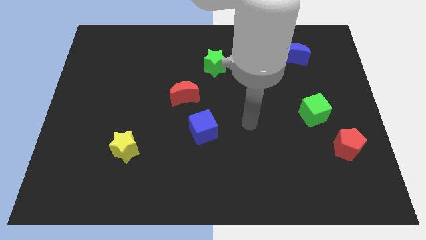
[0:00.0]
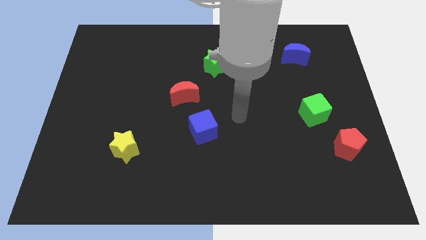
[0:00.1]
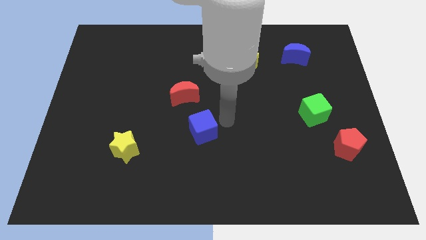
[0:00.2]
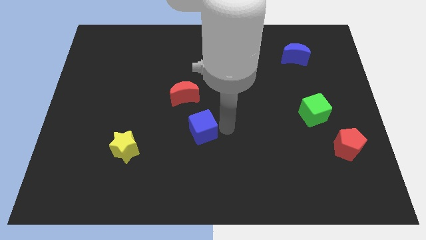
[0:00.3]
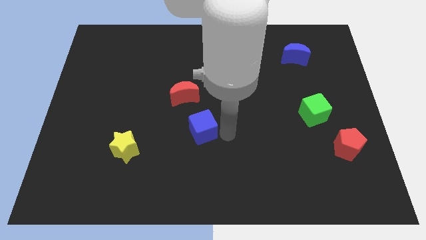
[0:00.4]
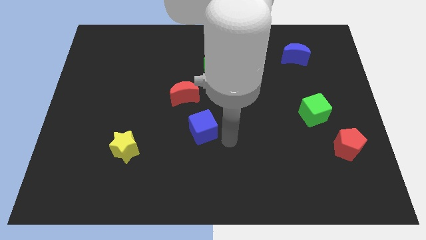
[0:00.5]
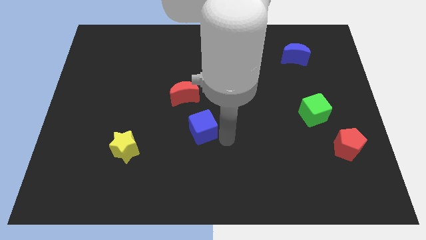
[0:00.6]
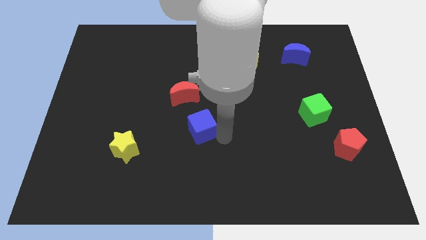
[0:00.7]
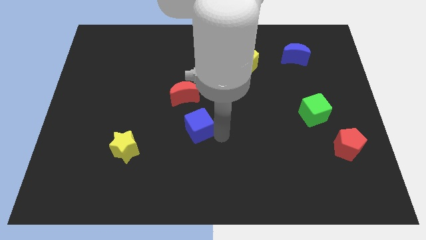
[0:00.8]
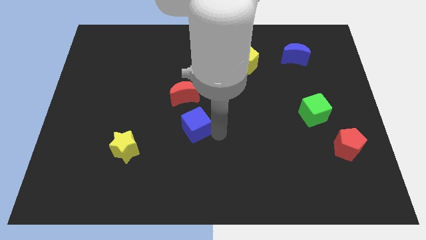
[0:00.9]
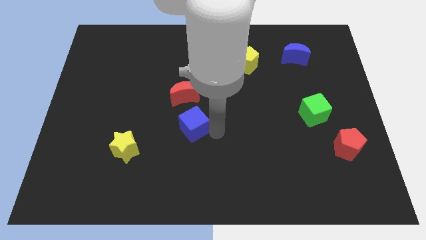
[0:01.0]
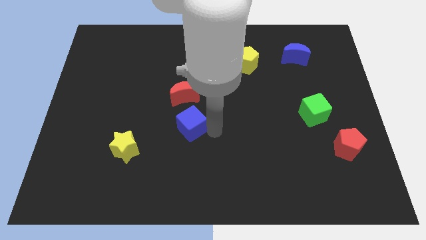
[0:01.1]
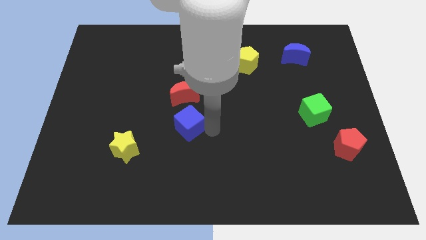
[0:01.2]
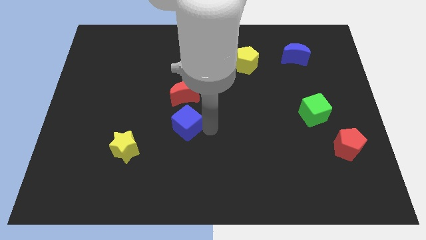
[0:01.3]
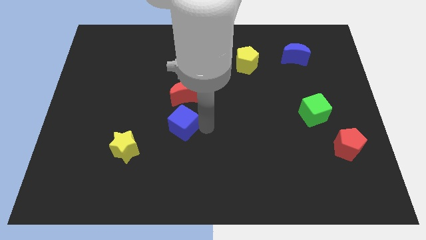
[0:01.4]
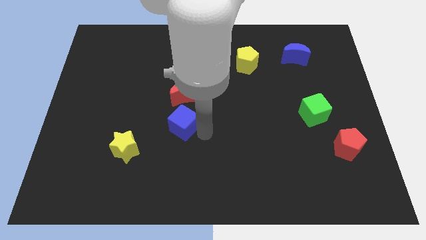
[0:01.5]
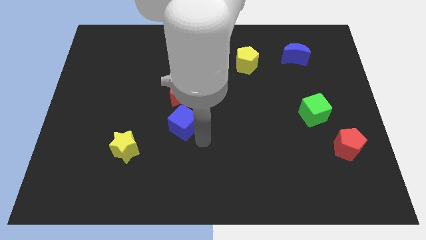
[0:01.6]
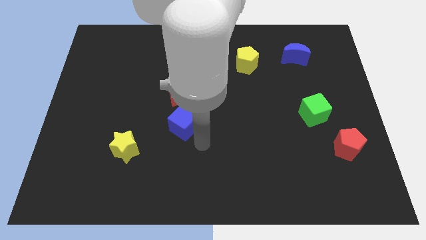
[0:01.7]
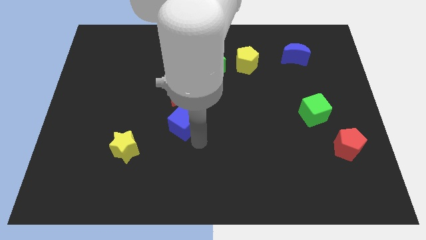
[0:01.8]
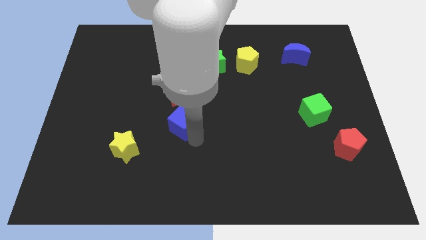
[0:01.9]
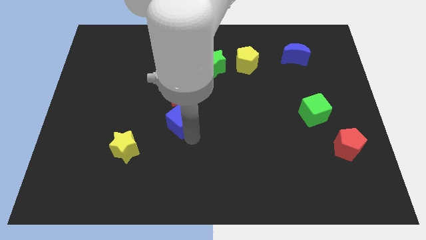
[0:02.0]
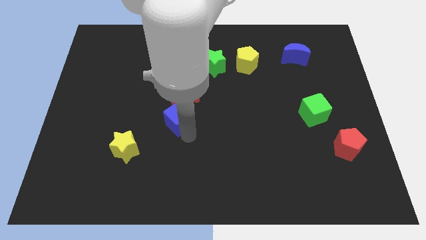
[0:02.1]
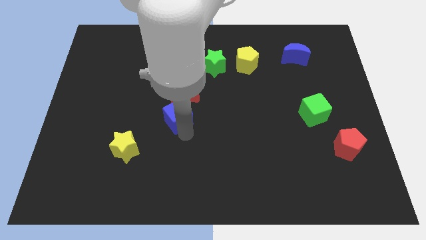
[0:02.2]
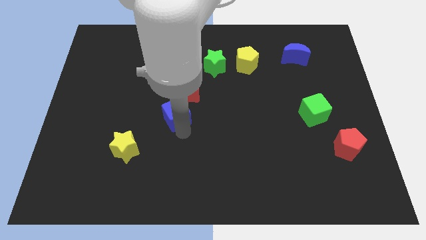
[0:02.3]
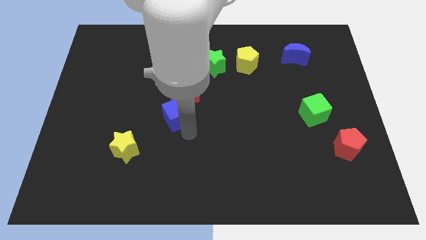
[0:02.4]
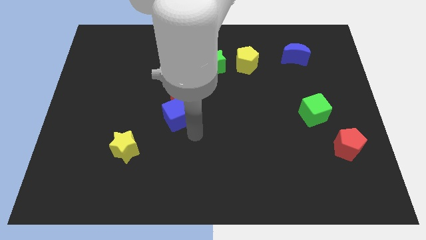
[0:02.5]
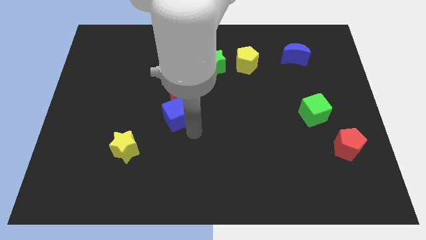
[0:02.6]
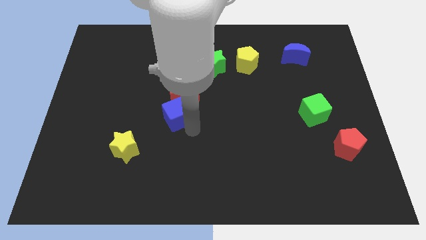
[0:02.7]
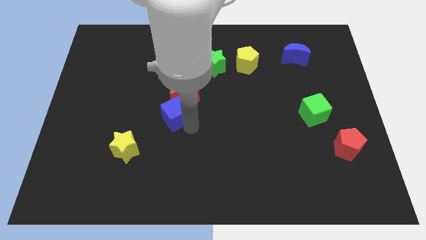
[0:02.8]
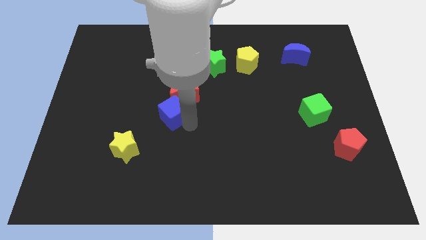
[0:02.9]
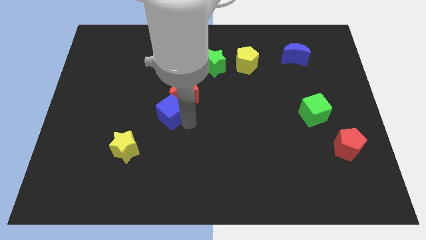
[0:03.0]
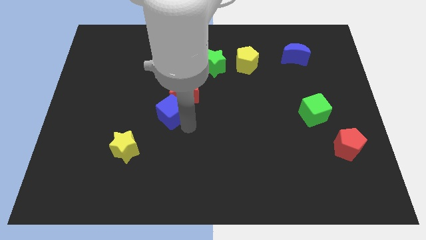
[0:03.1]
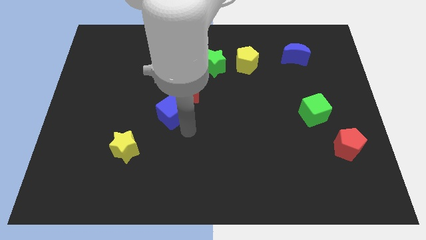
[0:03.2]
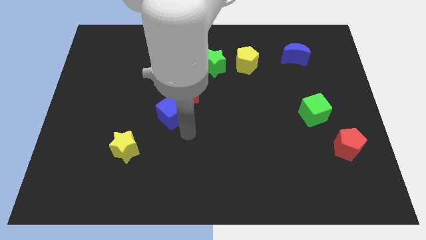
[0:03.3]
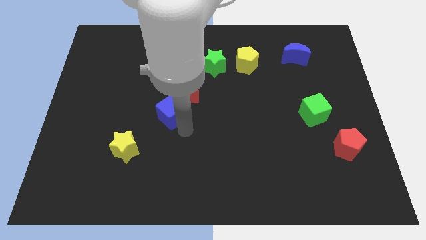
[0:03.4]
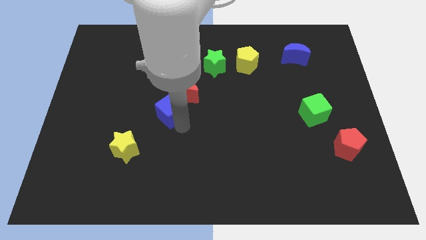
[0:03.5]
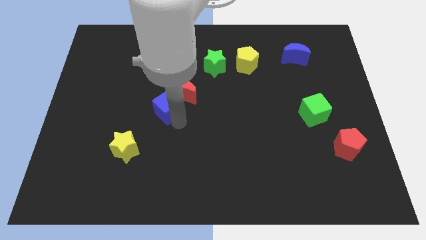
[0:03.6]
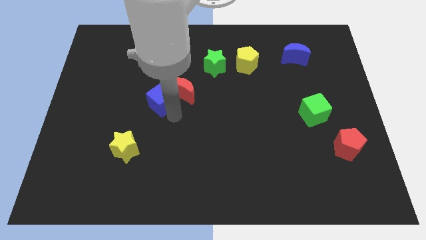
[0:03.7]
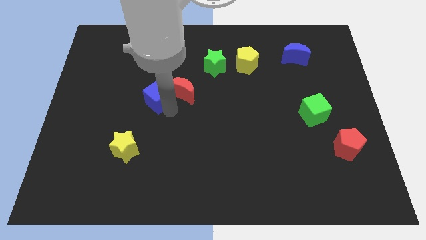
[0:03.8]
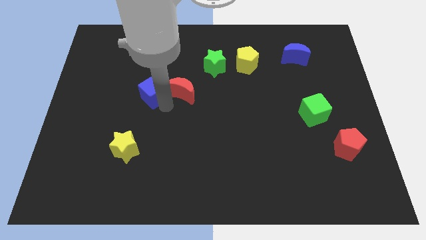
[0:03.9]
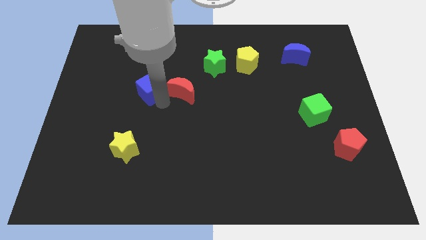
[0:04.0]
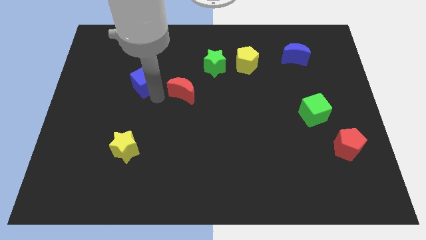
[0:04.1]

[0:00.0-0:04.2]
push the blue cube up and left

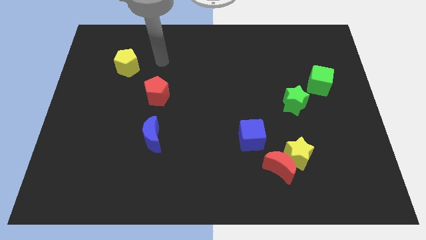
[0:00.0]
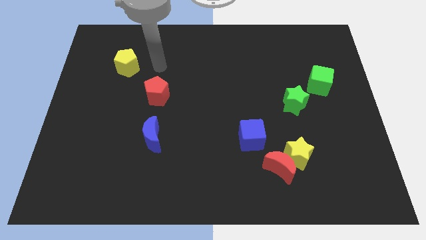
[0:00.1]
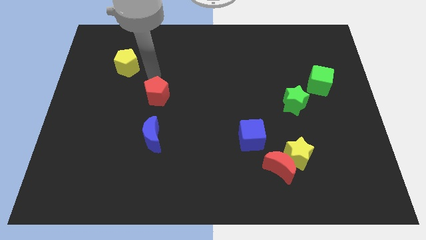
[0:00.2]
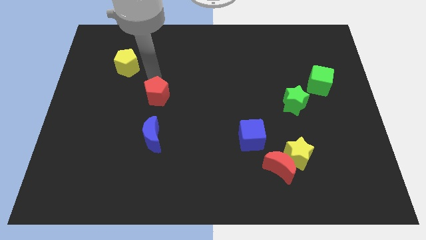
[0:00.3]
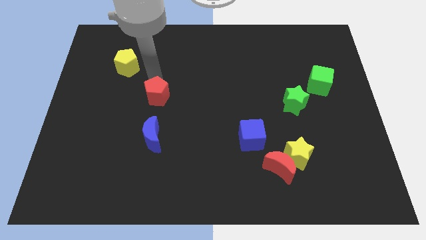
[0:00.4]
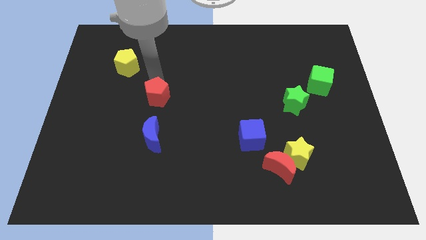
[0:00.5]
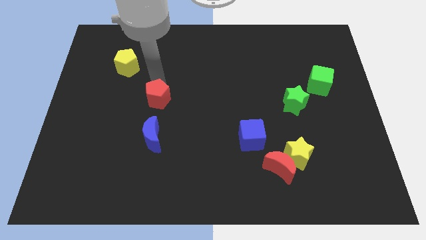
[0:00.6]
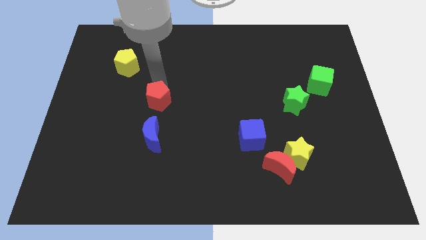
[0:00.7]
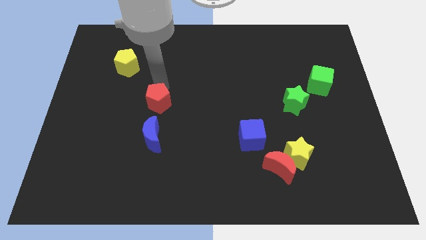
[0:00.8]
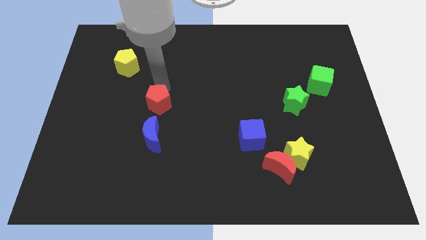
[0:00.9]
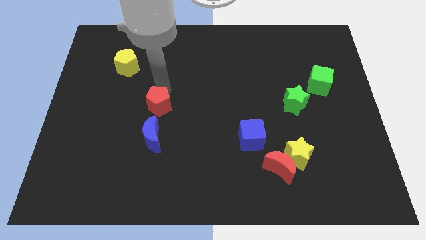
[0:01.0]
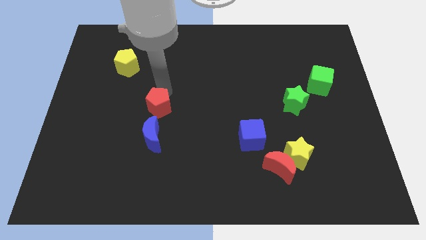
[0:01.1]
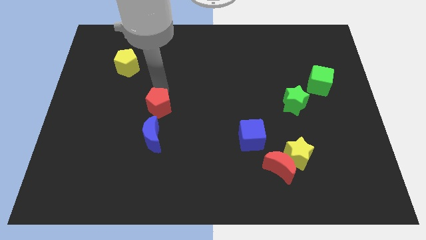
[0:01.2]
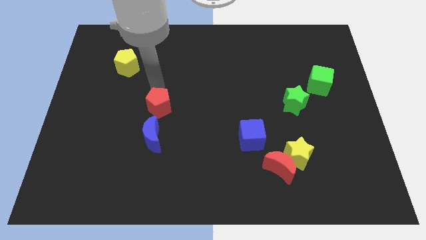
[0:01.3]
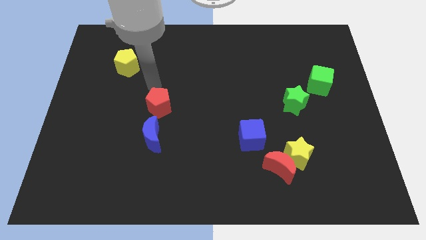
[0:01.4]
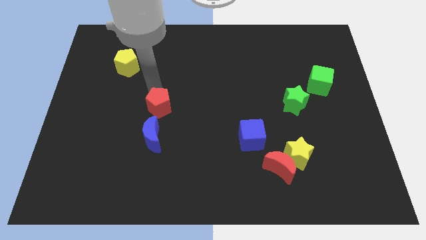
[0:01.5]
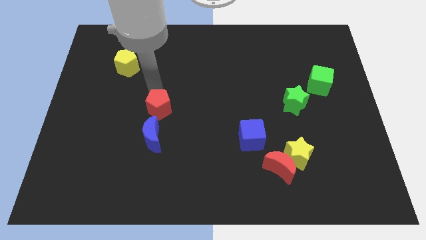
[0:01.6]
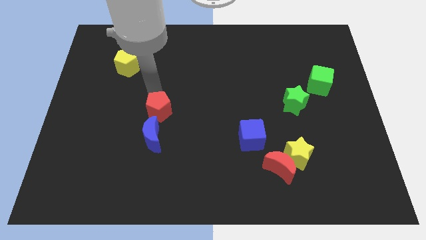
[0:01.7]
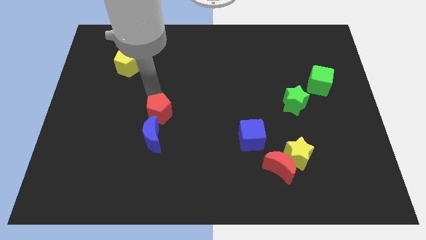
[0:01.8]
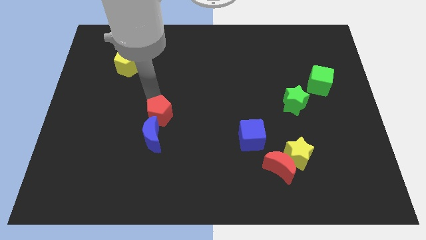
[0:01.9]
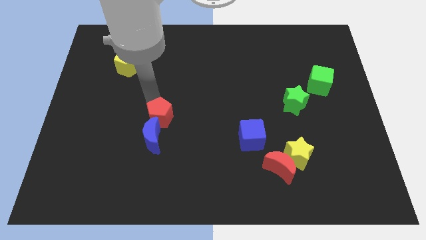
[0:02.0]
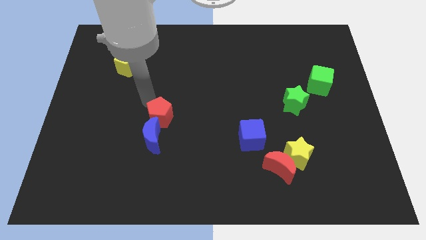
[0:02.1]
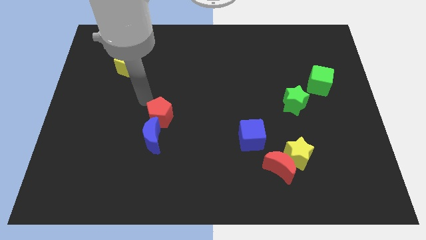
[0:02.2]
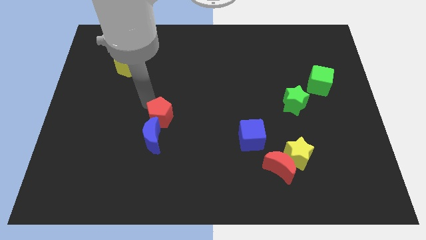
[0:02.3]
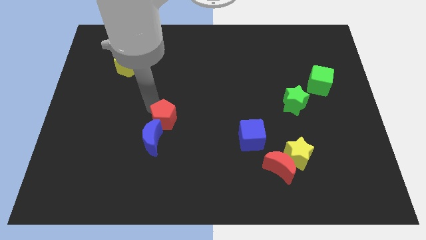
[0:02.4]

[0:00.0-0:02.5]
slightly slide the red pentagon down

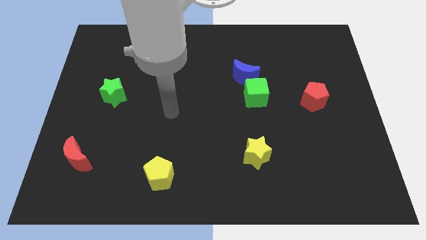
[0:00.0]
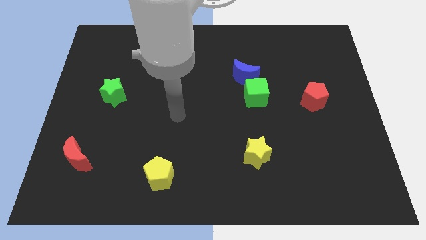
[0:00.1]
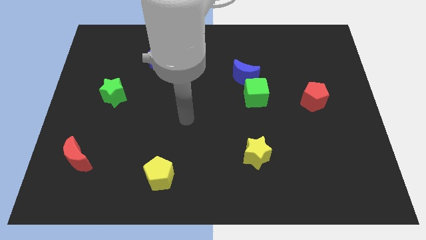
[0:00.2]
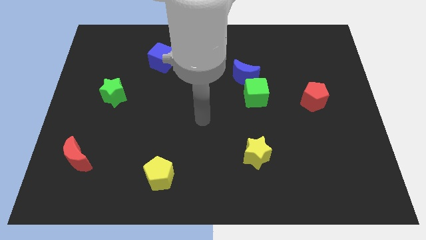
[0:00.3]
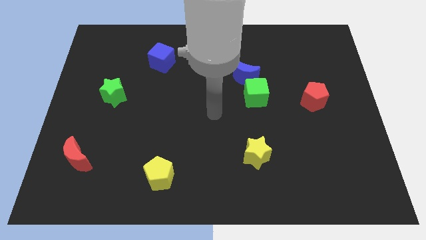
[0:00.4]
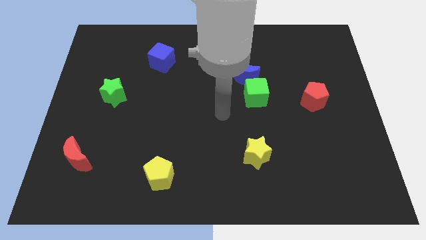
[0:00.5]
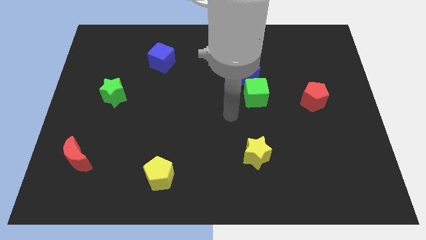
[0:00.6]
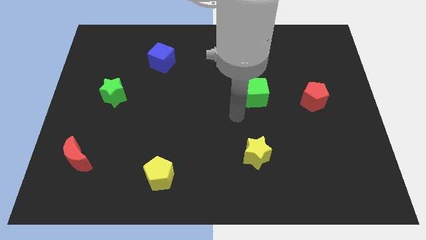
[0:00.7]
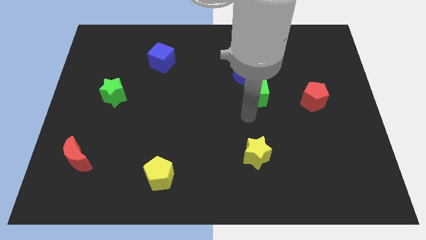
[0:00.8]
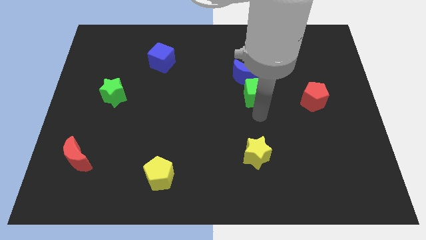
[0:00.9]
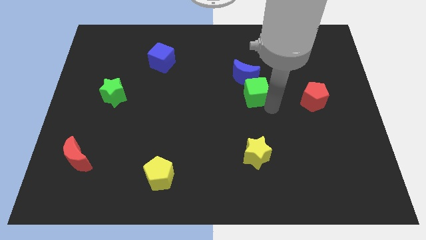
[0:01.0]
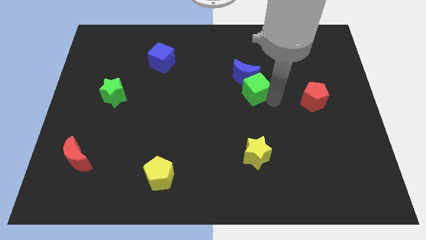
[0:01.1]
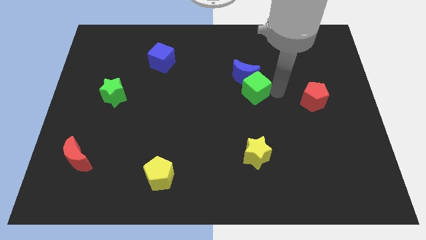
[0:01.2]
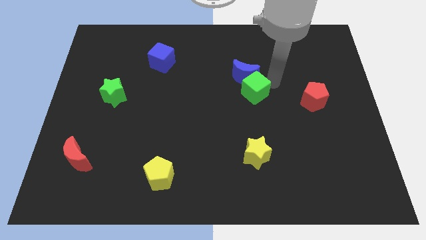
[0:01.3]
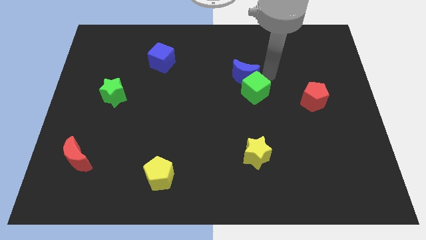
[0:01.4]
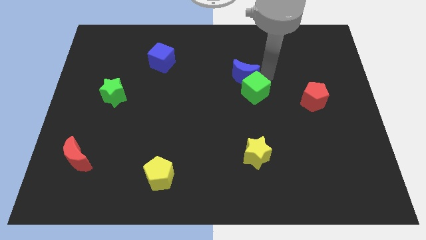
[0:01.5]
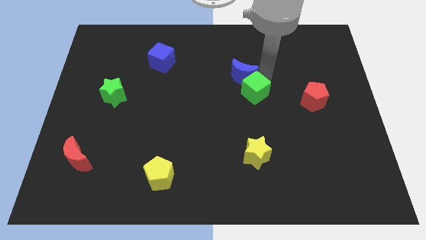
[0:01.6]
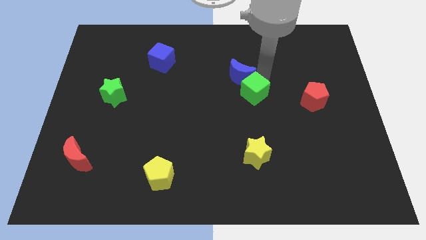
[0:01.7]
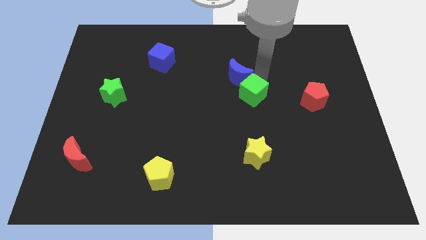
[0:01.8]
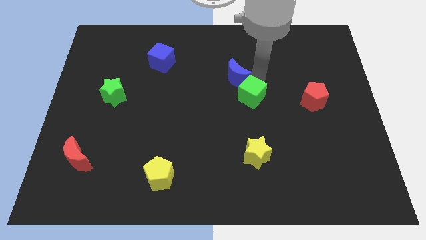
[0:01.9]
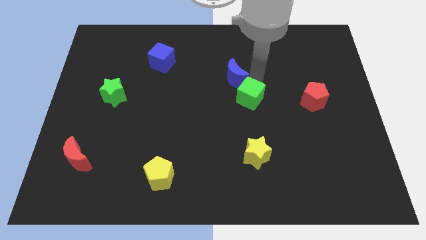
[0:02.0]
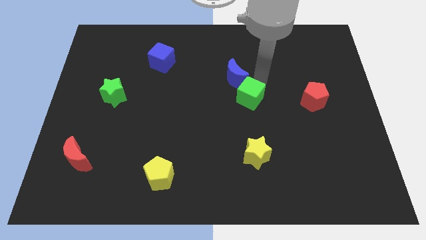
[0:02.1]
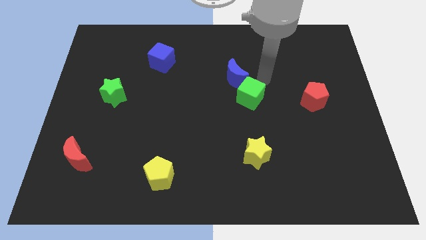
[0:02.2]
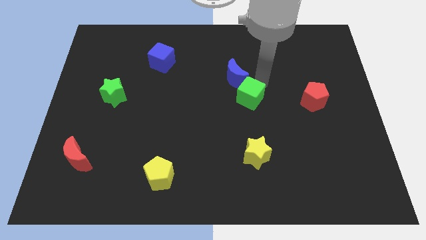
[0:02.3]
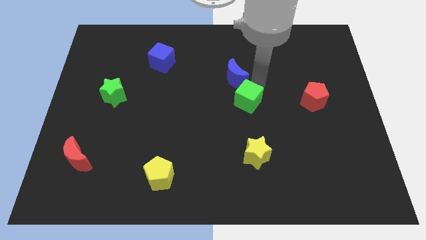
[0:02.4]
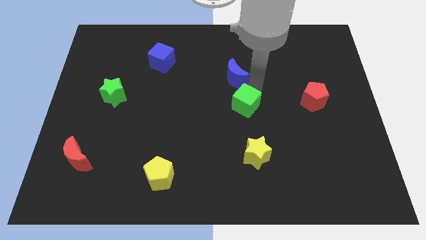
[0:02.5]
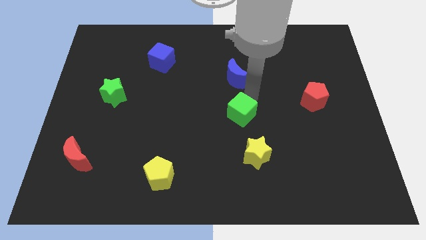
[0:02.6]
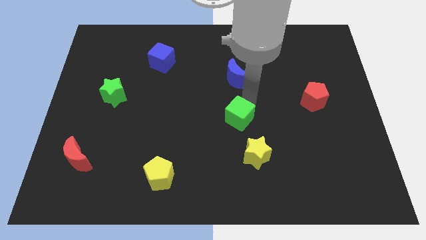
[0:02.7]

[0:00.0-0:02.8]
push the green cube downwards and left diagonally somewhat
